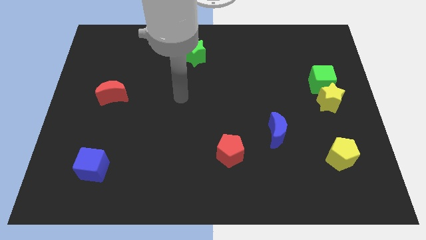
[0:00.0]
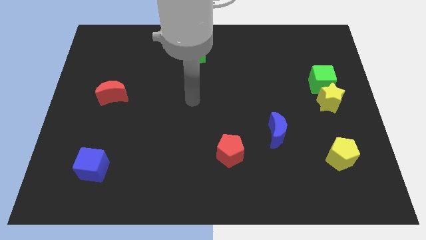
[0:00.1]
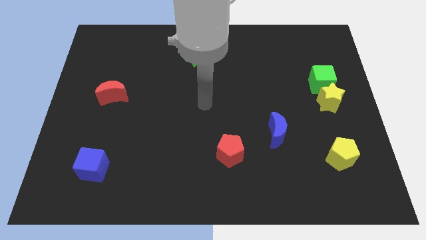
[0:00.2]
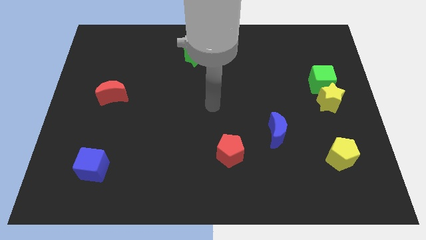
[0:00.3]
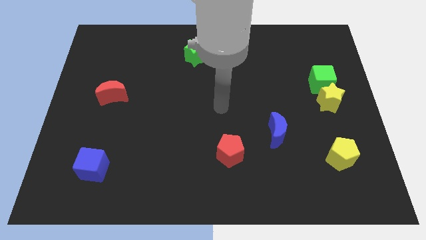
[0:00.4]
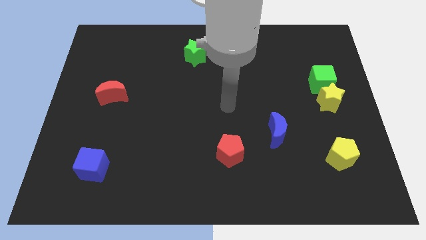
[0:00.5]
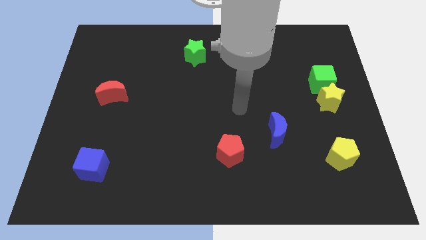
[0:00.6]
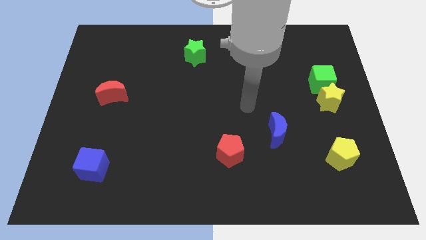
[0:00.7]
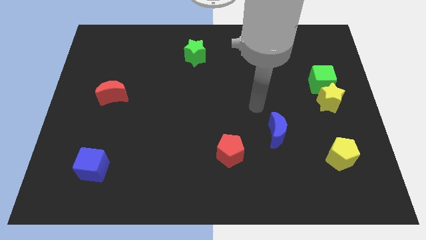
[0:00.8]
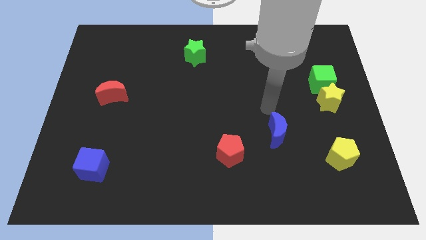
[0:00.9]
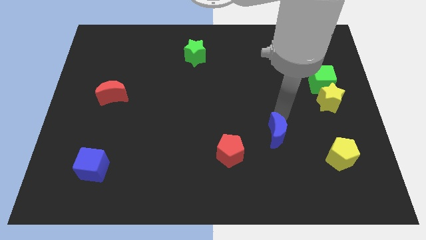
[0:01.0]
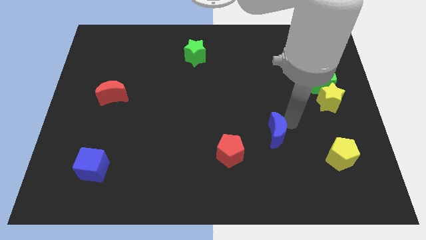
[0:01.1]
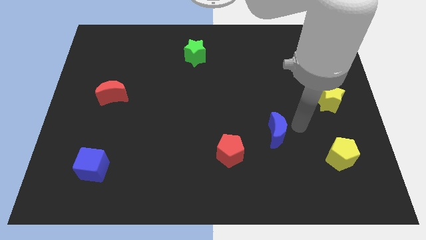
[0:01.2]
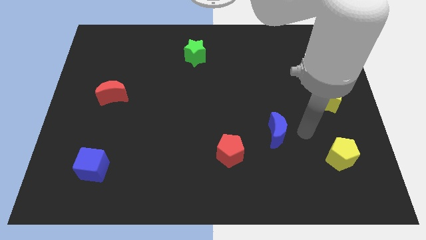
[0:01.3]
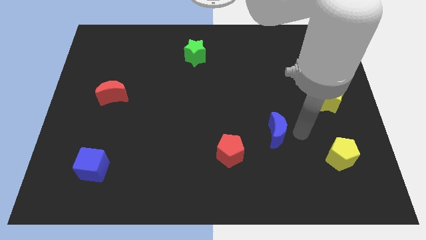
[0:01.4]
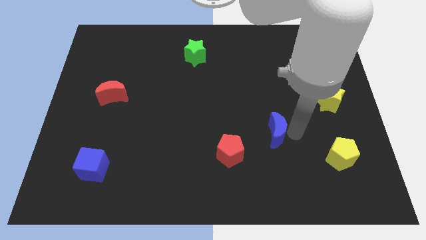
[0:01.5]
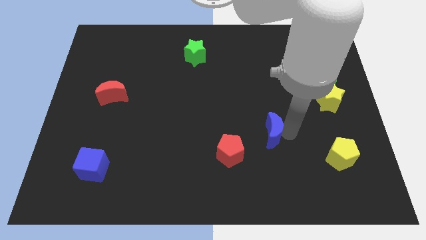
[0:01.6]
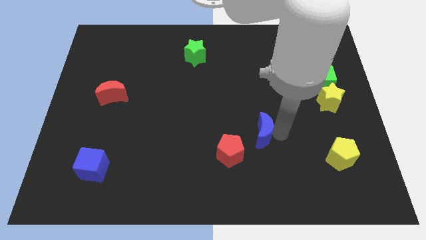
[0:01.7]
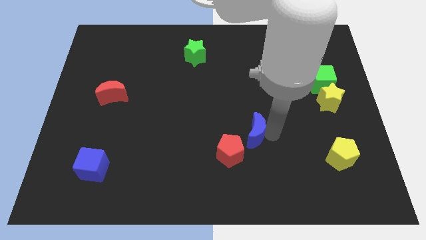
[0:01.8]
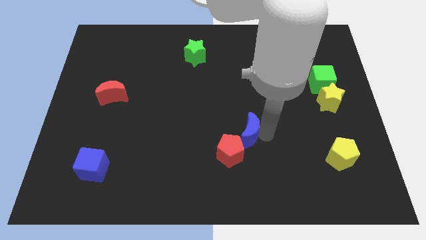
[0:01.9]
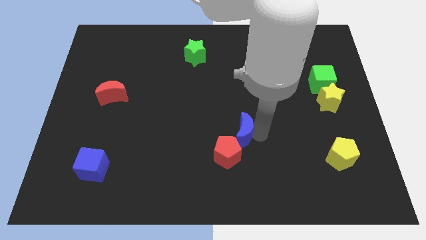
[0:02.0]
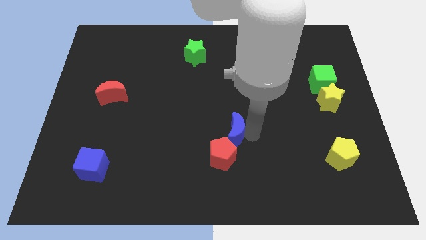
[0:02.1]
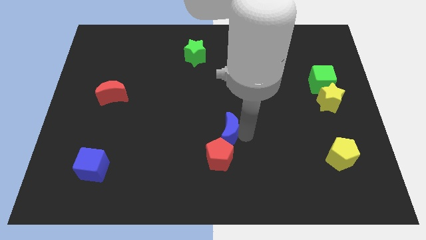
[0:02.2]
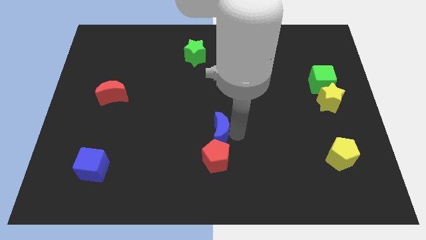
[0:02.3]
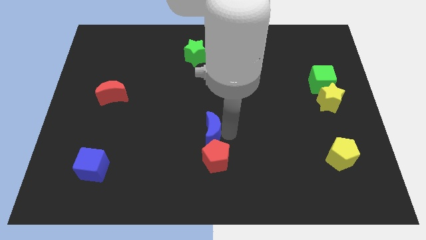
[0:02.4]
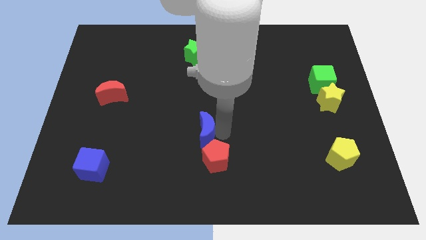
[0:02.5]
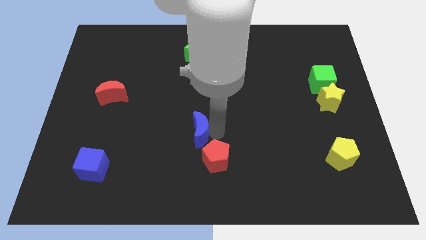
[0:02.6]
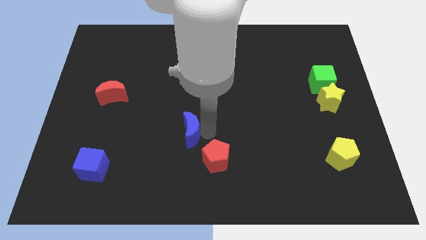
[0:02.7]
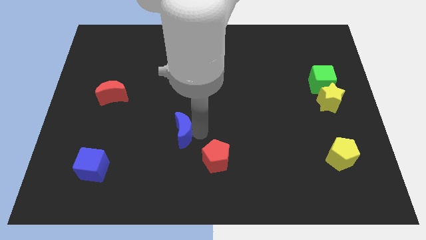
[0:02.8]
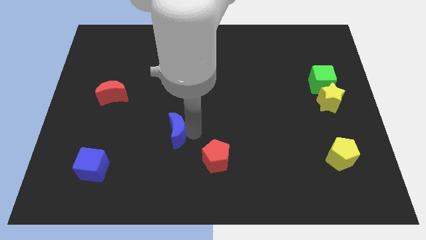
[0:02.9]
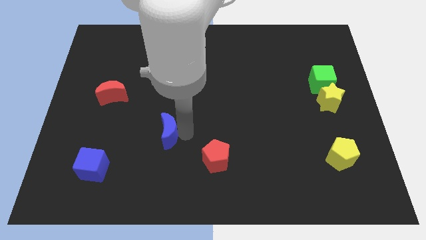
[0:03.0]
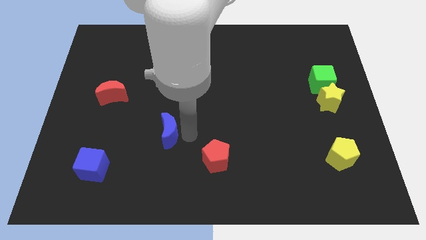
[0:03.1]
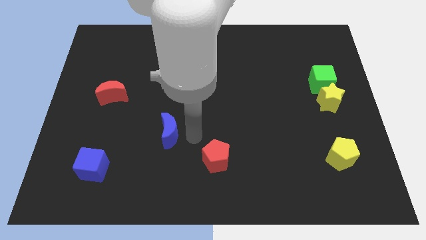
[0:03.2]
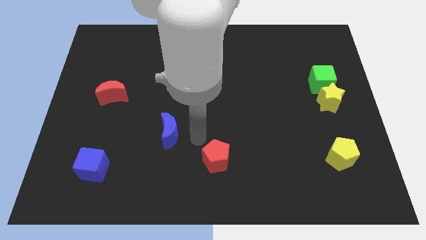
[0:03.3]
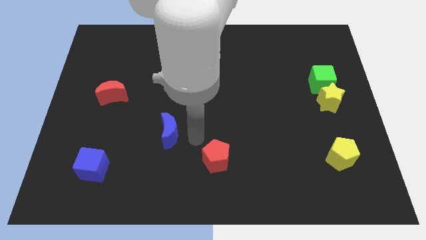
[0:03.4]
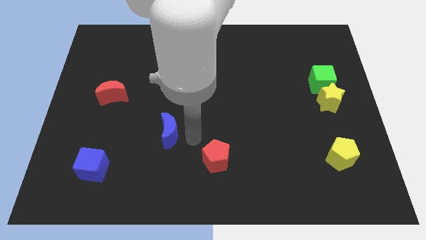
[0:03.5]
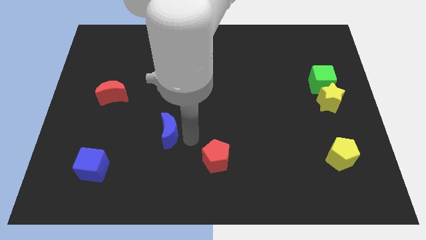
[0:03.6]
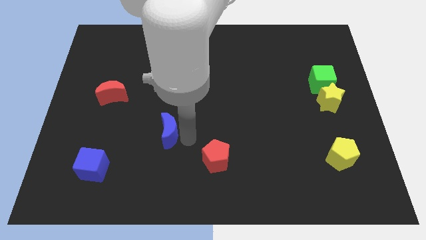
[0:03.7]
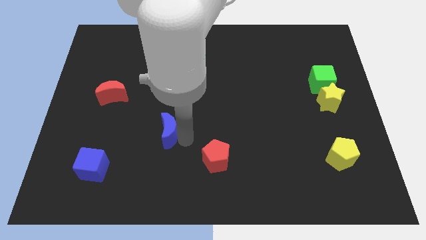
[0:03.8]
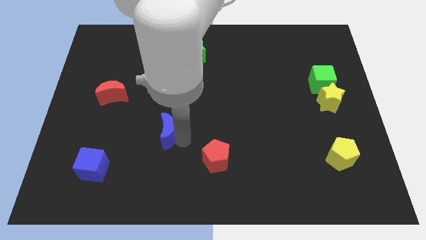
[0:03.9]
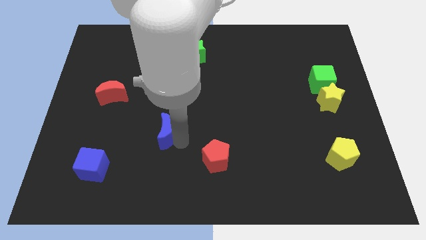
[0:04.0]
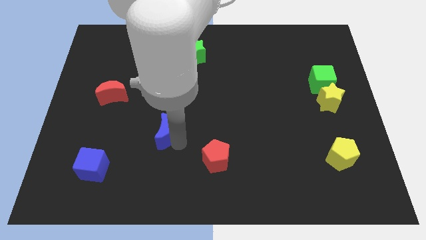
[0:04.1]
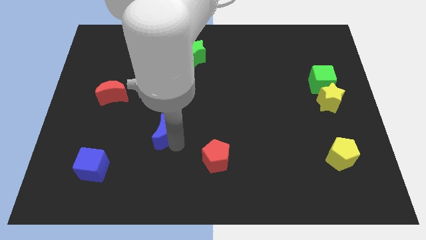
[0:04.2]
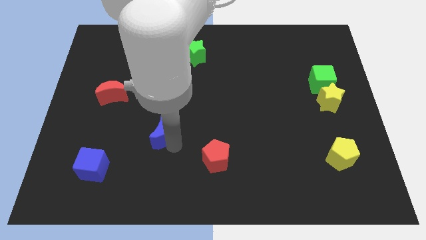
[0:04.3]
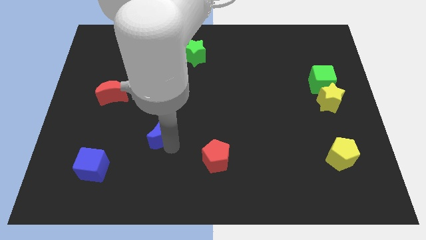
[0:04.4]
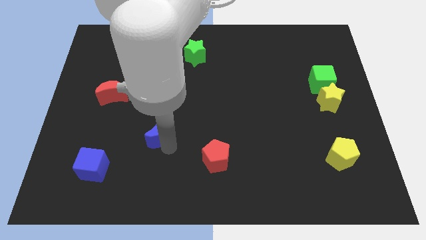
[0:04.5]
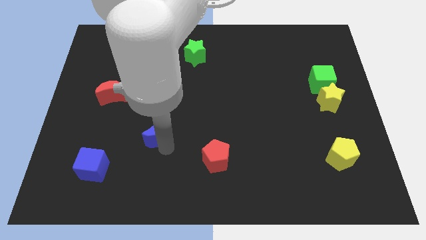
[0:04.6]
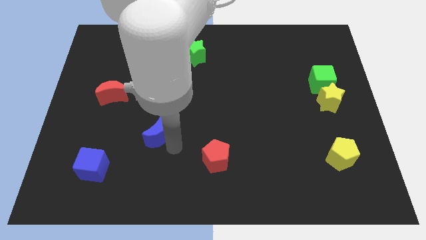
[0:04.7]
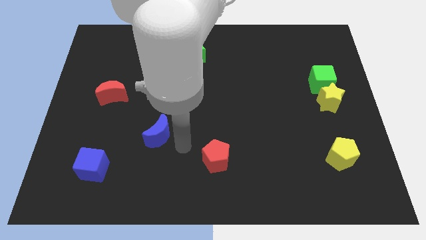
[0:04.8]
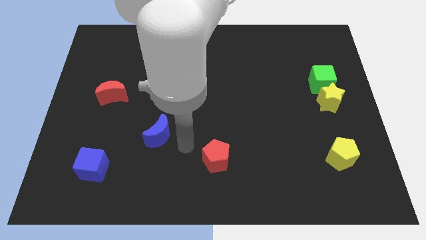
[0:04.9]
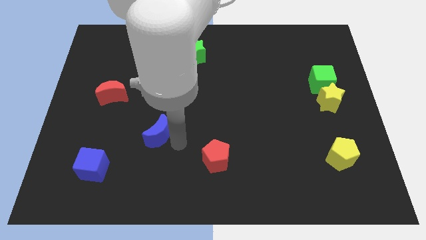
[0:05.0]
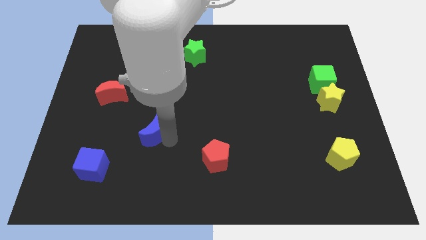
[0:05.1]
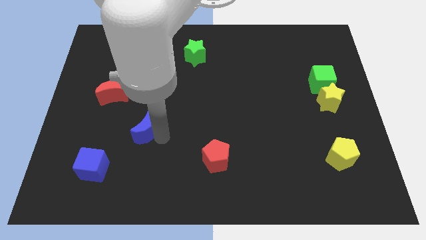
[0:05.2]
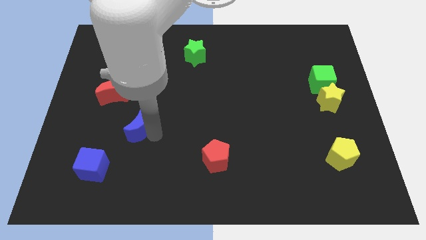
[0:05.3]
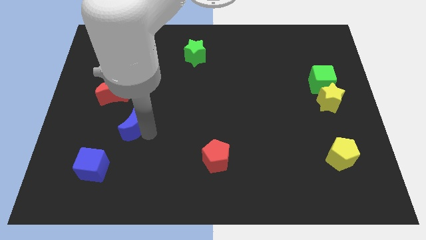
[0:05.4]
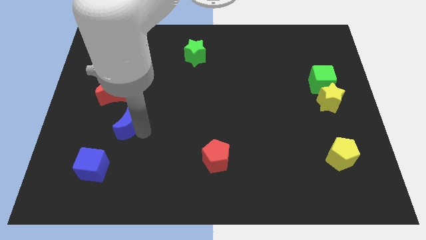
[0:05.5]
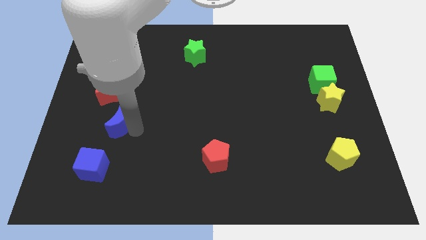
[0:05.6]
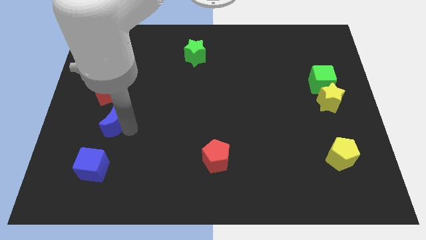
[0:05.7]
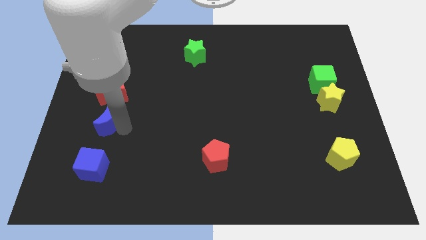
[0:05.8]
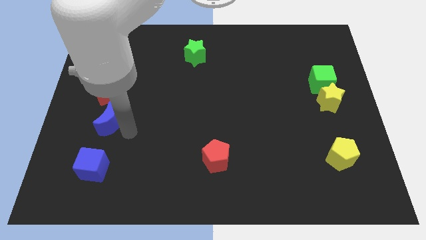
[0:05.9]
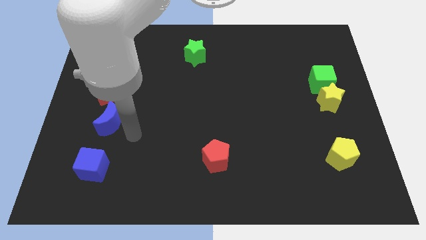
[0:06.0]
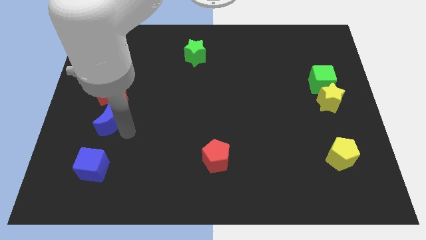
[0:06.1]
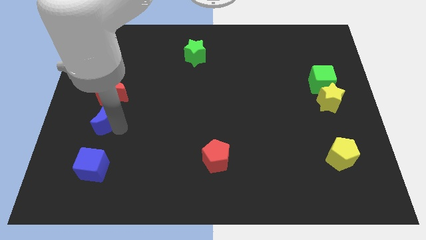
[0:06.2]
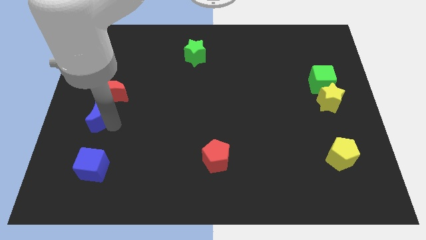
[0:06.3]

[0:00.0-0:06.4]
slide the blue moon to the left side
